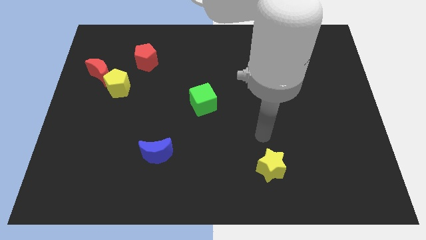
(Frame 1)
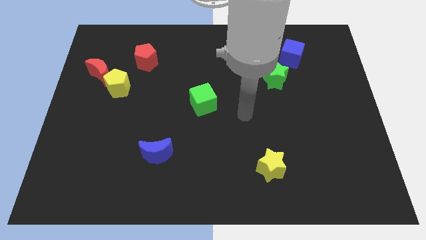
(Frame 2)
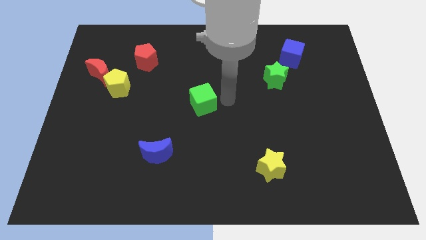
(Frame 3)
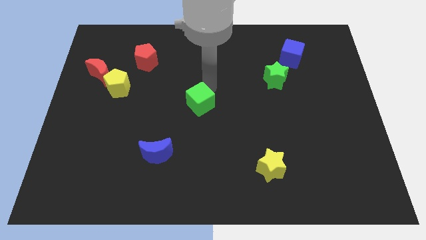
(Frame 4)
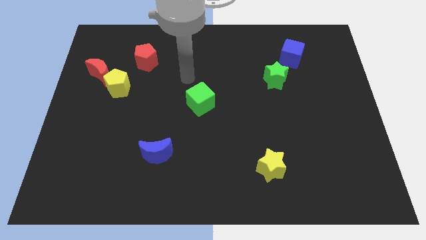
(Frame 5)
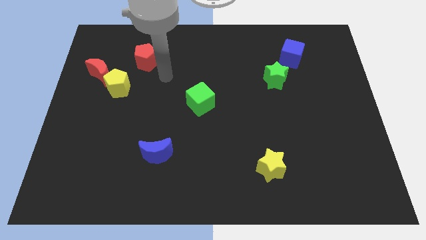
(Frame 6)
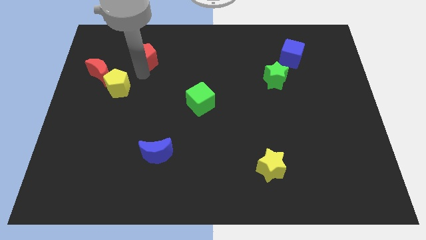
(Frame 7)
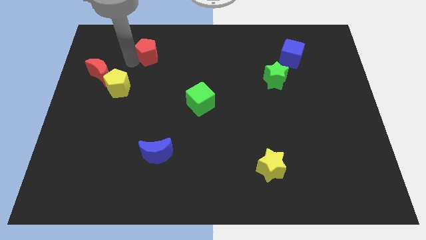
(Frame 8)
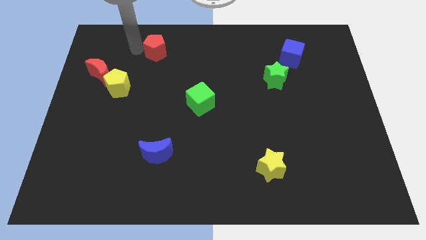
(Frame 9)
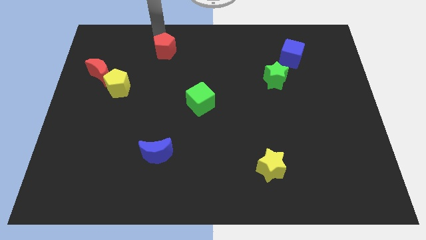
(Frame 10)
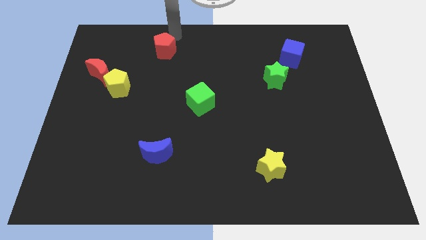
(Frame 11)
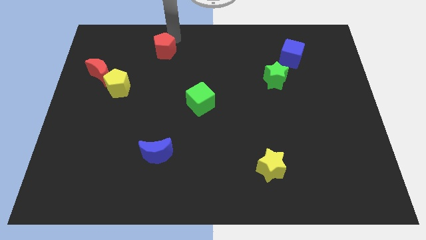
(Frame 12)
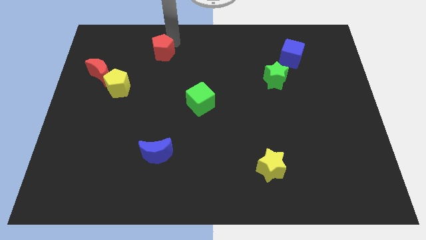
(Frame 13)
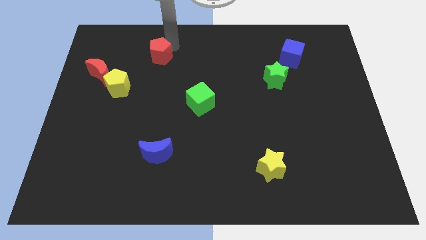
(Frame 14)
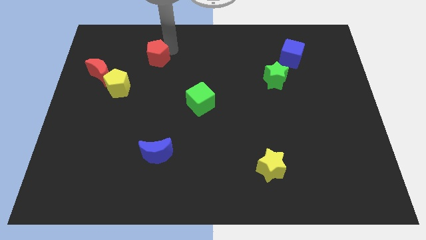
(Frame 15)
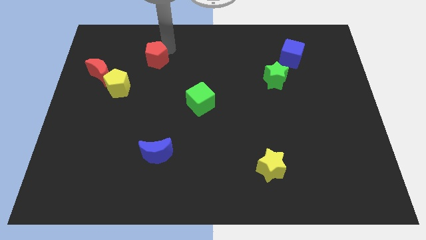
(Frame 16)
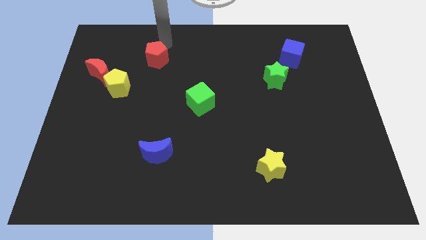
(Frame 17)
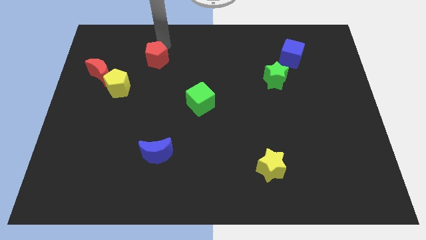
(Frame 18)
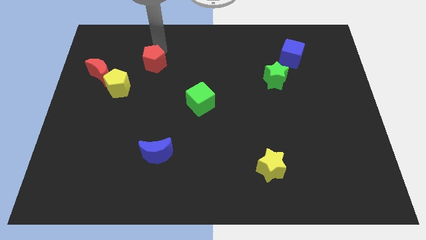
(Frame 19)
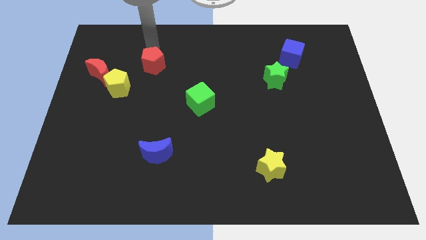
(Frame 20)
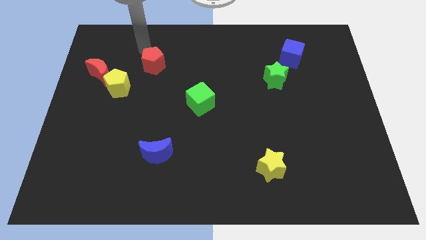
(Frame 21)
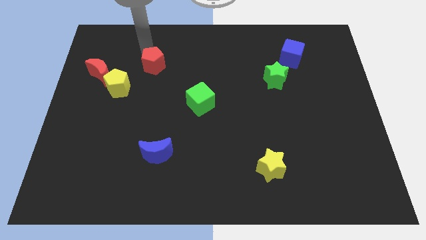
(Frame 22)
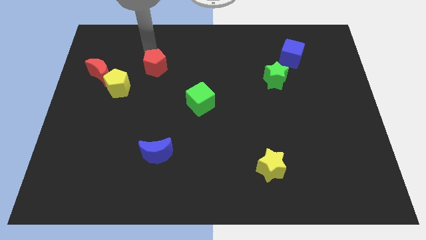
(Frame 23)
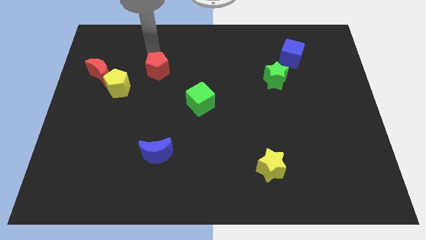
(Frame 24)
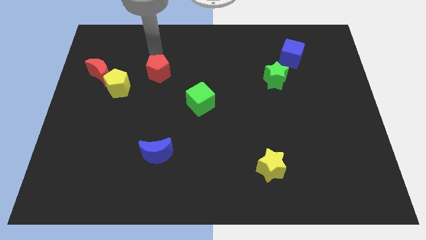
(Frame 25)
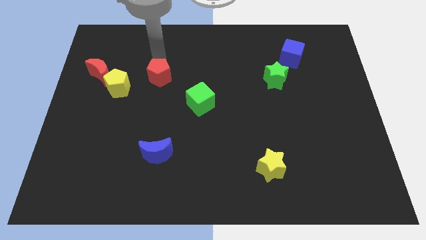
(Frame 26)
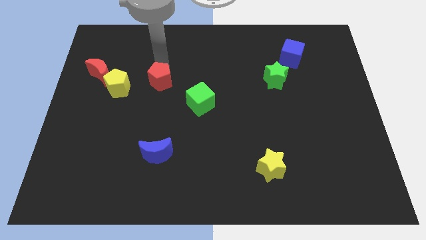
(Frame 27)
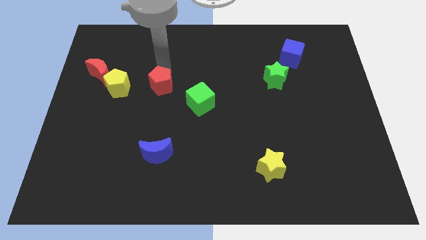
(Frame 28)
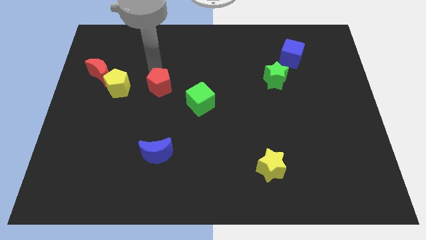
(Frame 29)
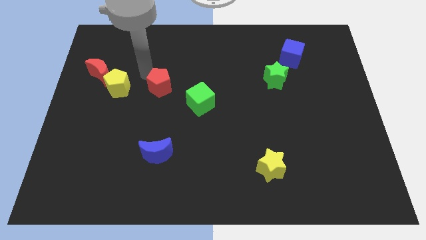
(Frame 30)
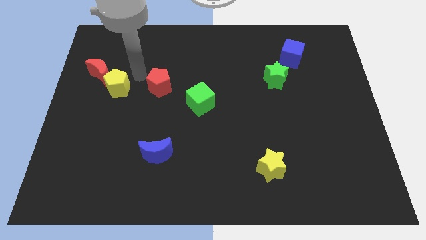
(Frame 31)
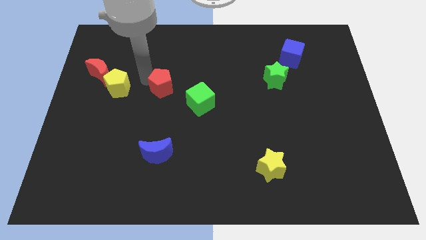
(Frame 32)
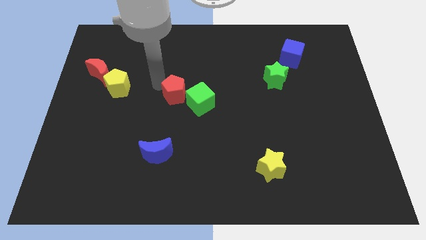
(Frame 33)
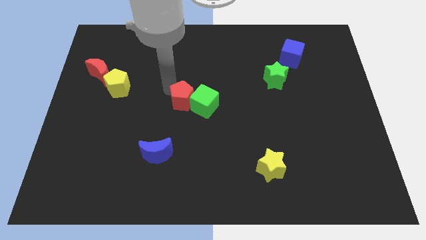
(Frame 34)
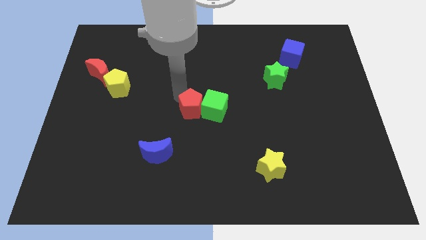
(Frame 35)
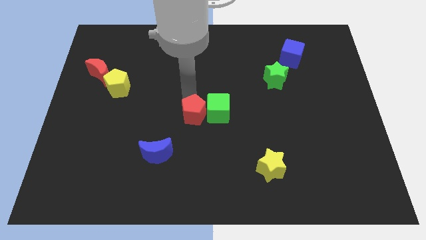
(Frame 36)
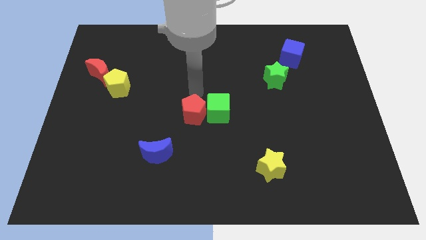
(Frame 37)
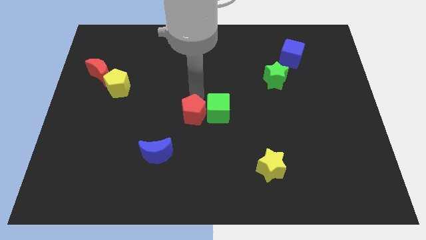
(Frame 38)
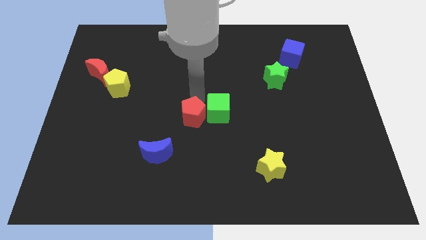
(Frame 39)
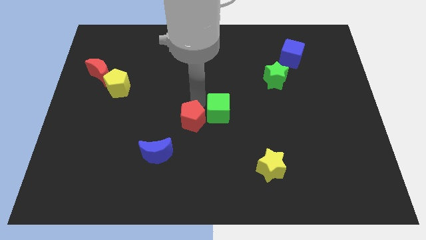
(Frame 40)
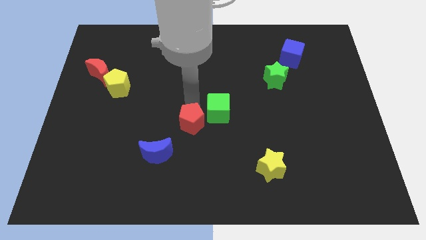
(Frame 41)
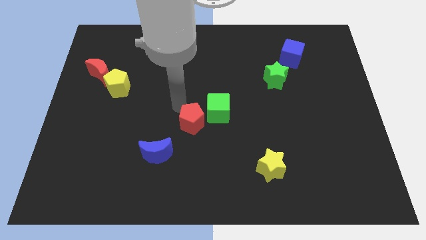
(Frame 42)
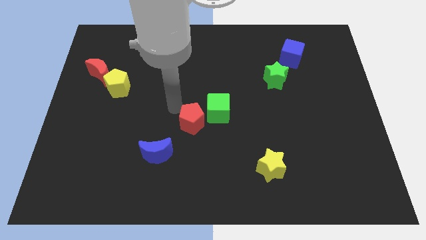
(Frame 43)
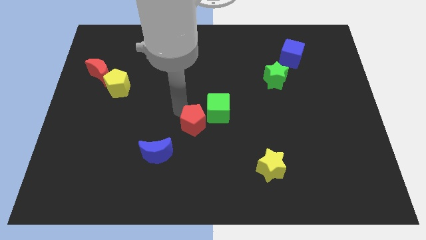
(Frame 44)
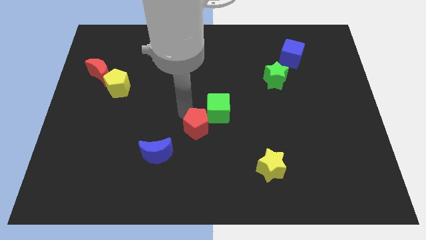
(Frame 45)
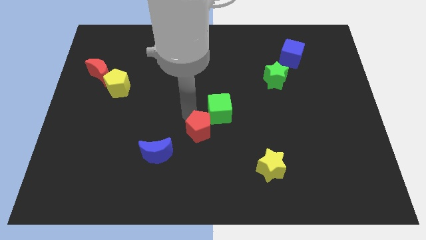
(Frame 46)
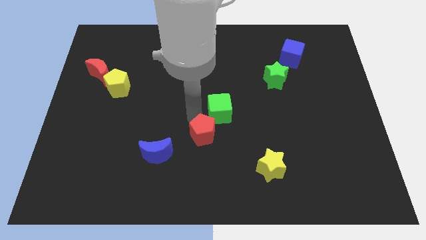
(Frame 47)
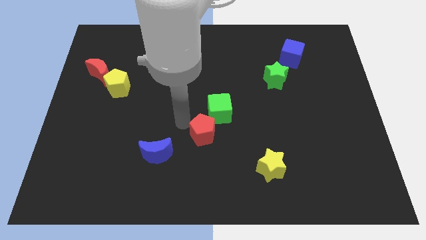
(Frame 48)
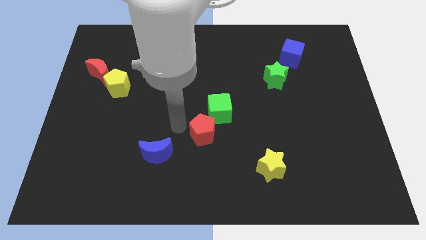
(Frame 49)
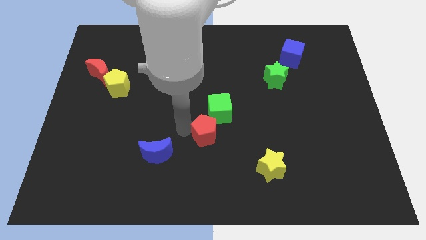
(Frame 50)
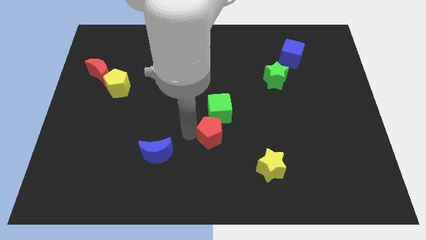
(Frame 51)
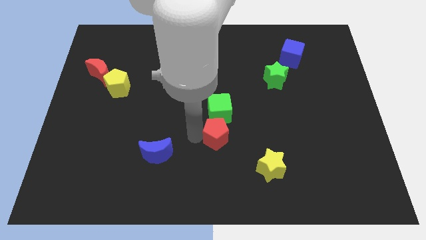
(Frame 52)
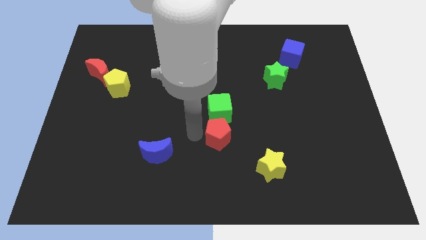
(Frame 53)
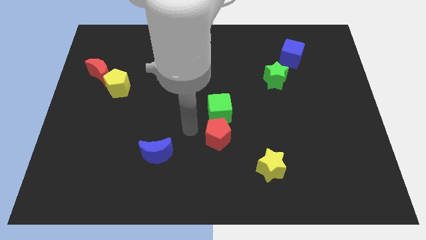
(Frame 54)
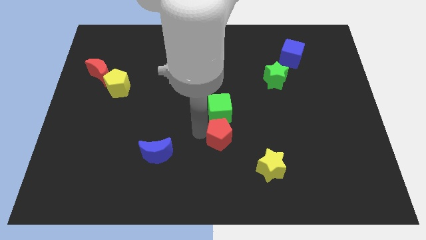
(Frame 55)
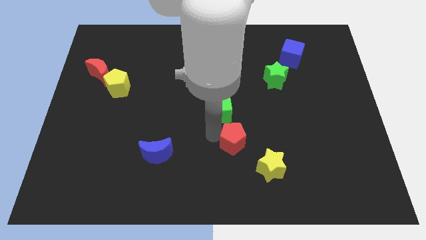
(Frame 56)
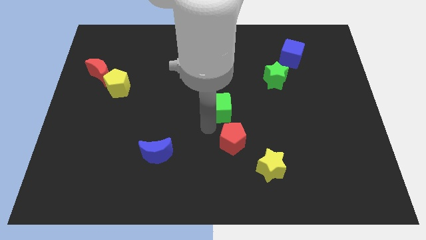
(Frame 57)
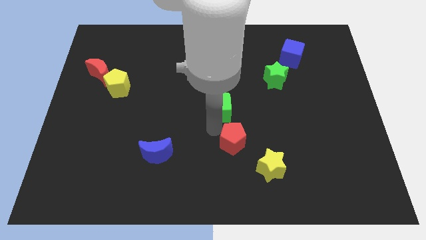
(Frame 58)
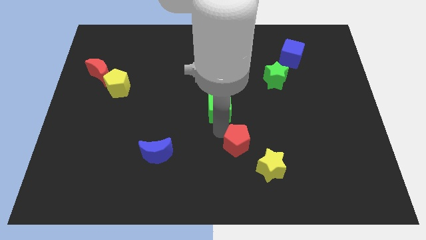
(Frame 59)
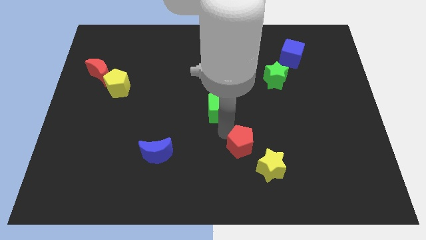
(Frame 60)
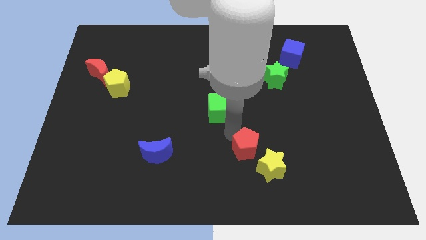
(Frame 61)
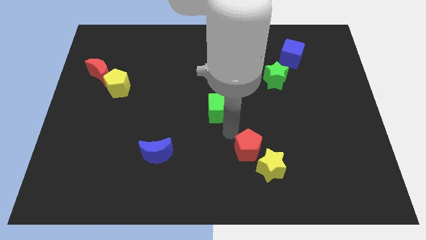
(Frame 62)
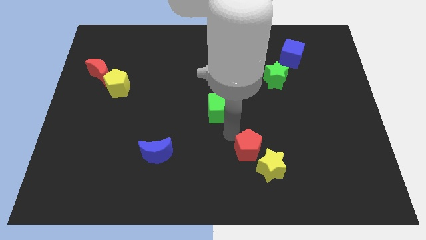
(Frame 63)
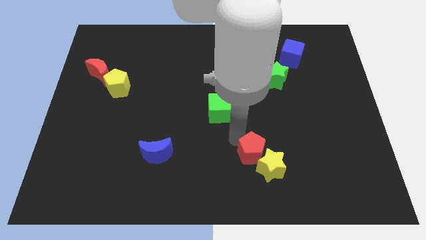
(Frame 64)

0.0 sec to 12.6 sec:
slide the red pentagon to the yellow star

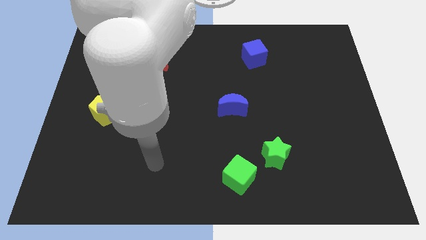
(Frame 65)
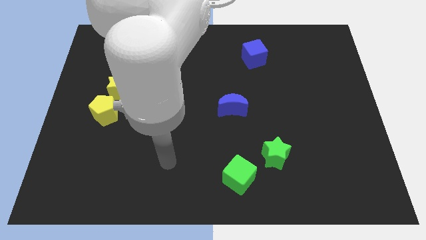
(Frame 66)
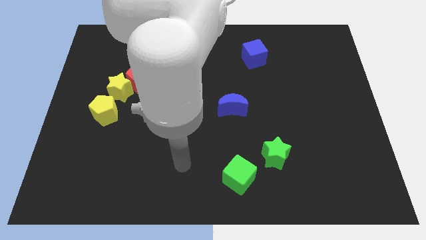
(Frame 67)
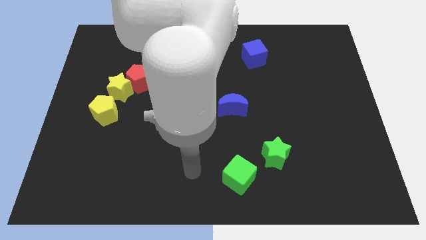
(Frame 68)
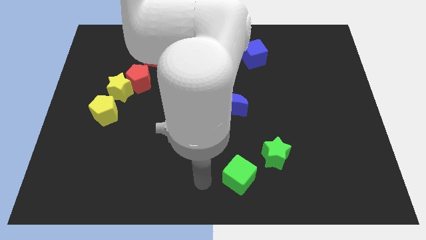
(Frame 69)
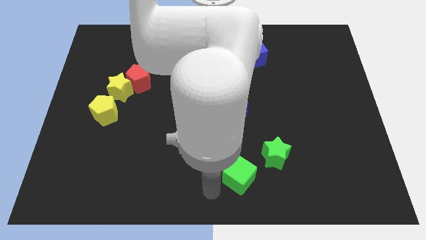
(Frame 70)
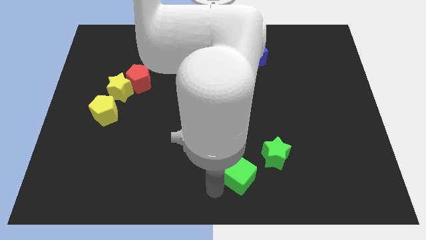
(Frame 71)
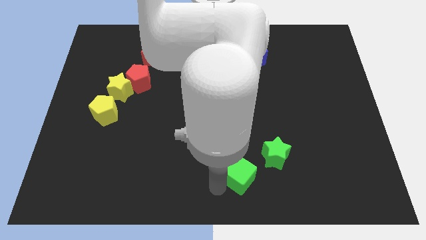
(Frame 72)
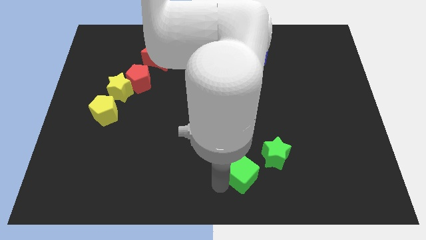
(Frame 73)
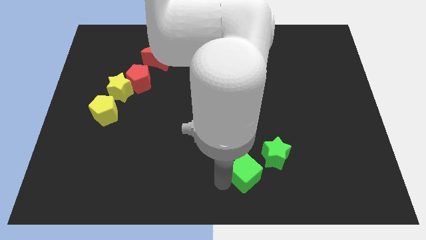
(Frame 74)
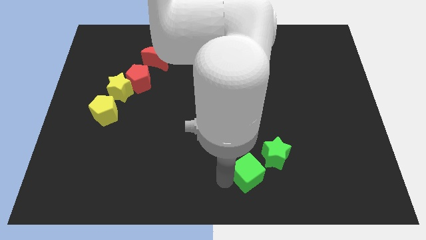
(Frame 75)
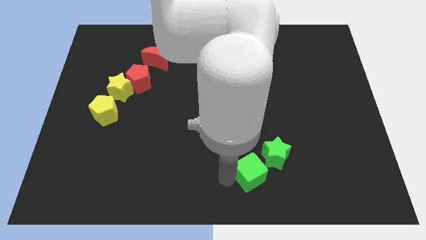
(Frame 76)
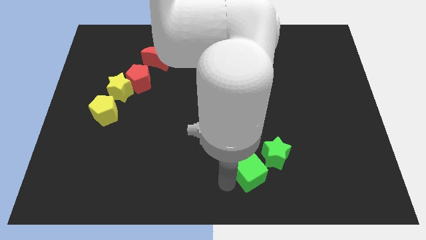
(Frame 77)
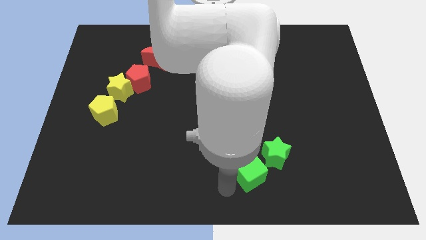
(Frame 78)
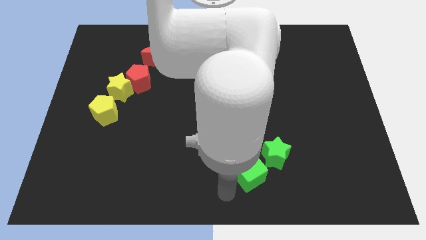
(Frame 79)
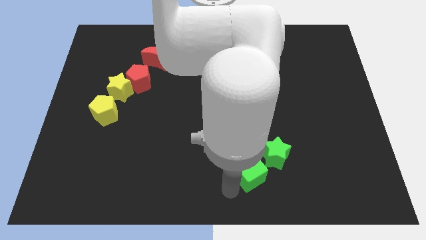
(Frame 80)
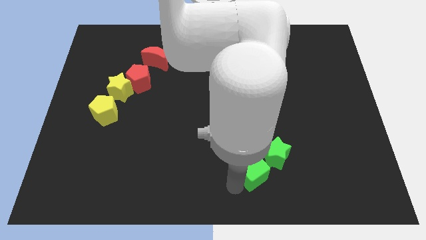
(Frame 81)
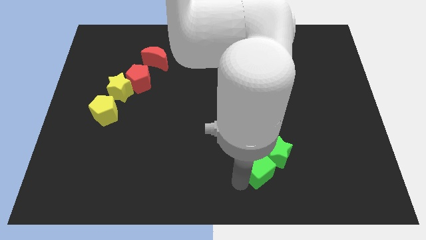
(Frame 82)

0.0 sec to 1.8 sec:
push the green cube next to the green star

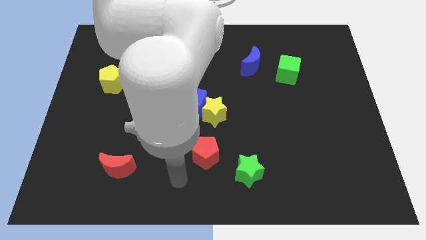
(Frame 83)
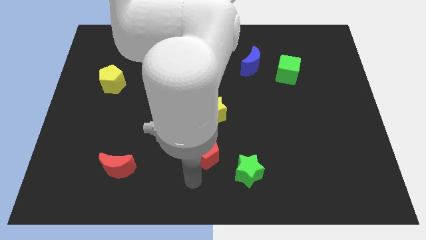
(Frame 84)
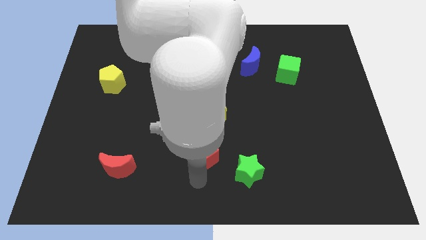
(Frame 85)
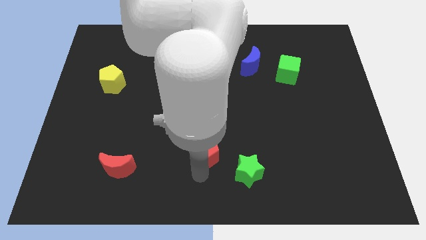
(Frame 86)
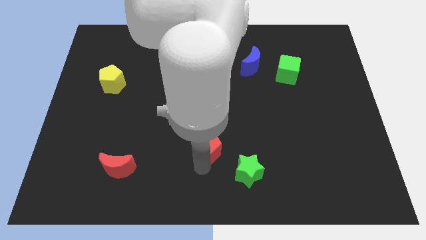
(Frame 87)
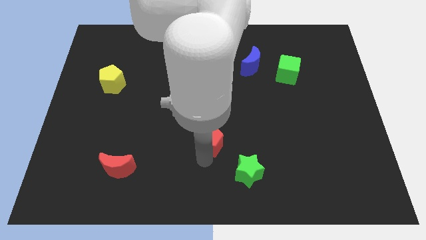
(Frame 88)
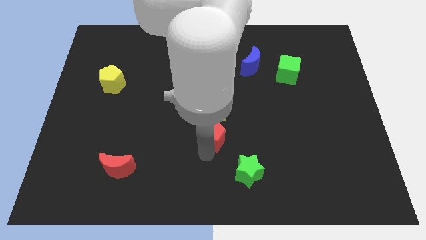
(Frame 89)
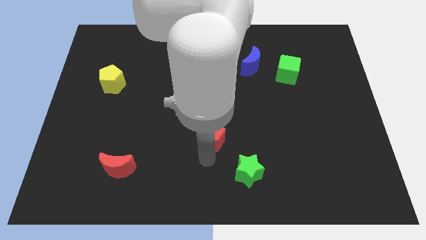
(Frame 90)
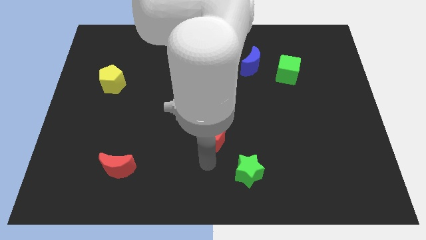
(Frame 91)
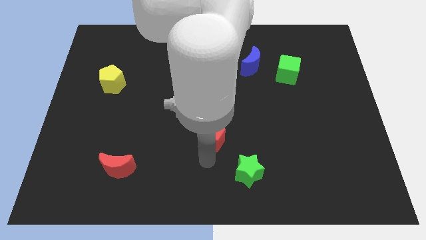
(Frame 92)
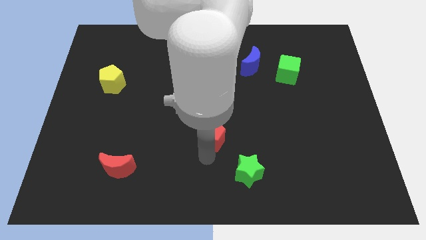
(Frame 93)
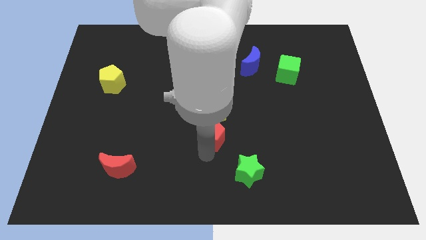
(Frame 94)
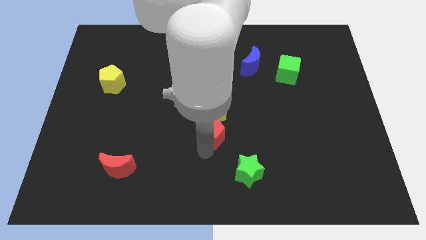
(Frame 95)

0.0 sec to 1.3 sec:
push the red pentagon to the yellow star
